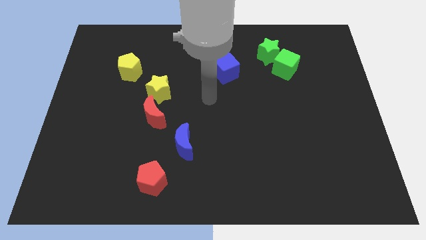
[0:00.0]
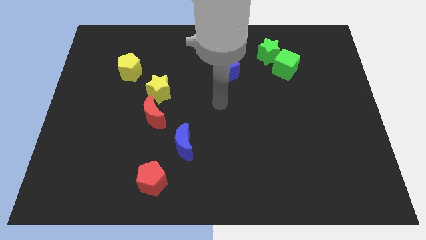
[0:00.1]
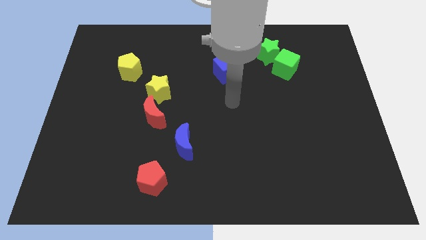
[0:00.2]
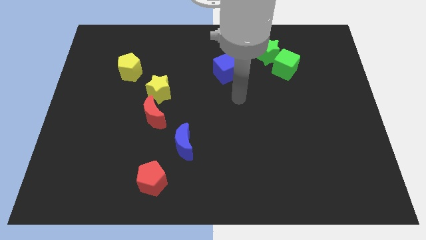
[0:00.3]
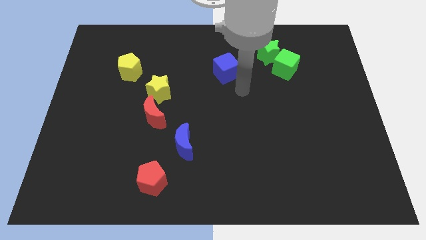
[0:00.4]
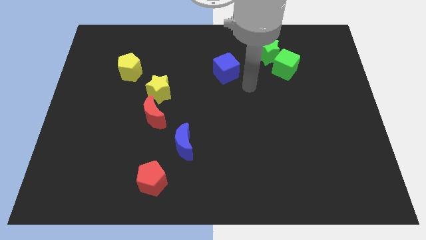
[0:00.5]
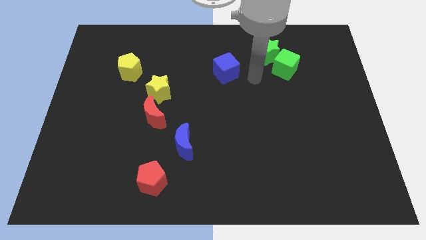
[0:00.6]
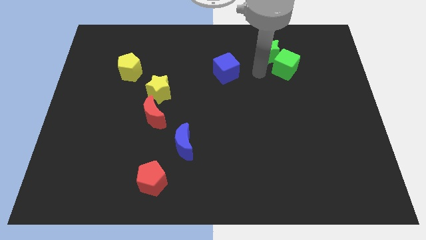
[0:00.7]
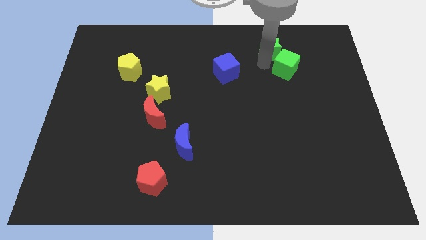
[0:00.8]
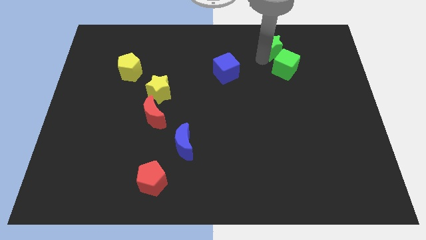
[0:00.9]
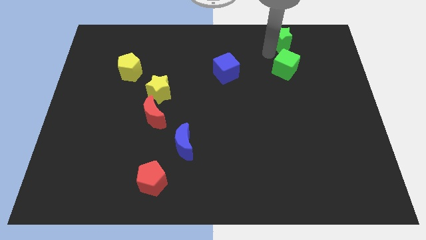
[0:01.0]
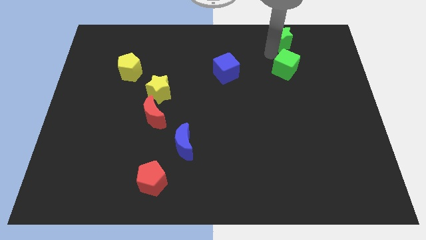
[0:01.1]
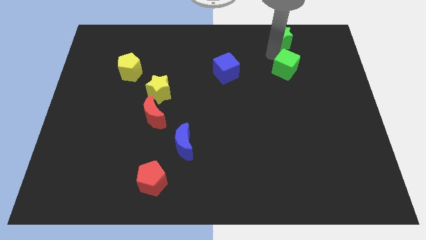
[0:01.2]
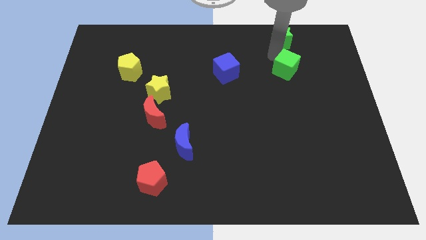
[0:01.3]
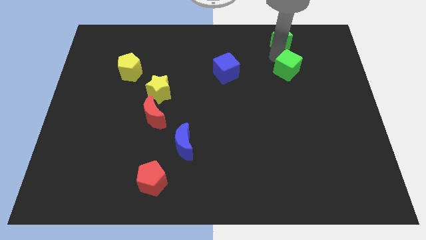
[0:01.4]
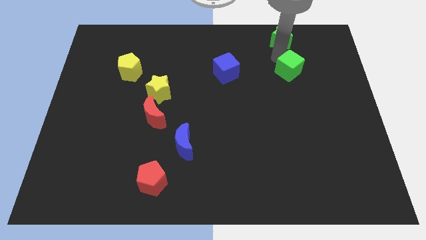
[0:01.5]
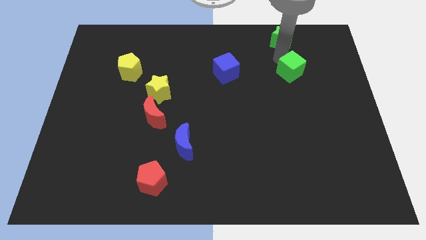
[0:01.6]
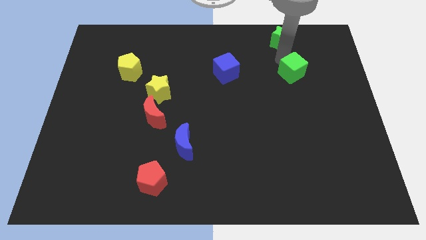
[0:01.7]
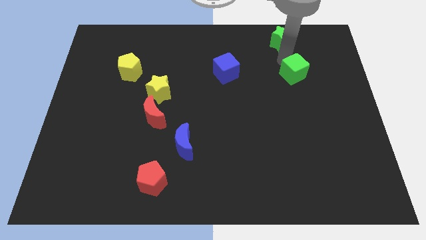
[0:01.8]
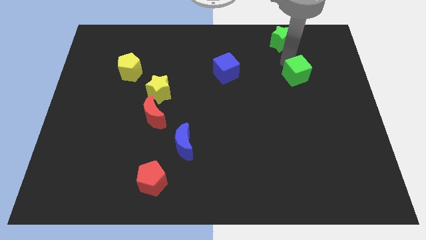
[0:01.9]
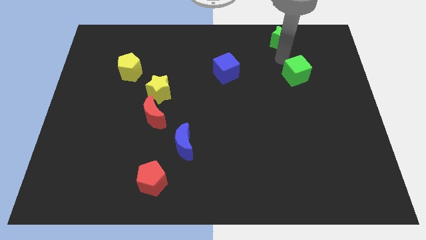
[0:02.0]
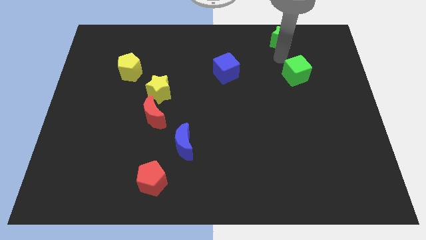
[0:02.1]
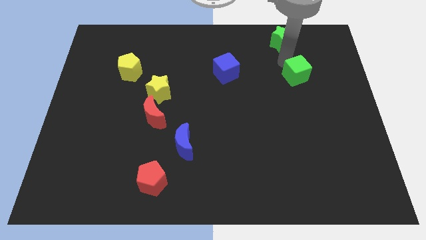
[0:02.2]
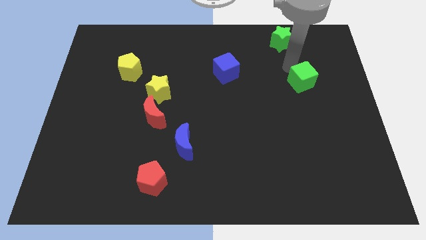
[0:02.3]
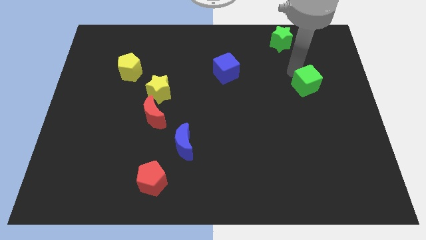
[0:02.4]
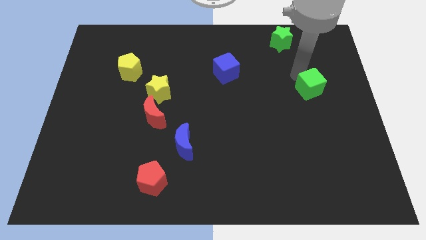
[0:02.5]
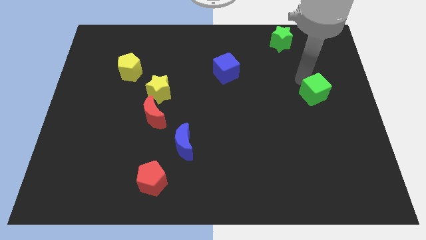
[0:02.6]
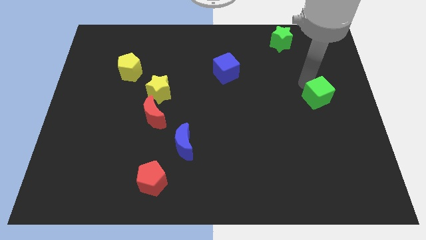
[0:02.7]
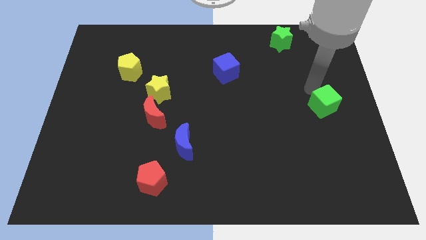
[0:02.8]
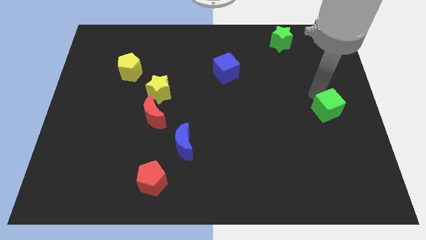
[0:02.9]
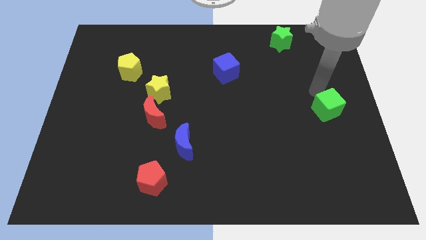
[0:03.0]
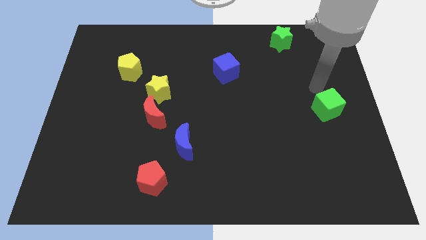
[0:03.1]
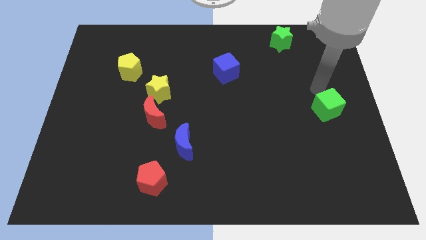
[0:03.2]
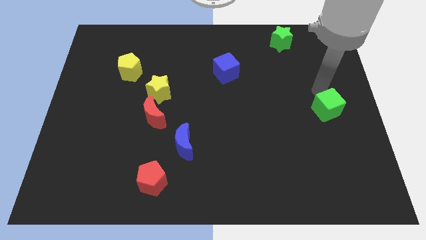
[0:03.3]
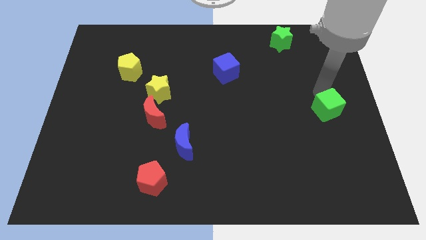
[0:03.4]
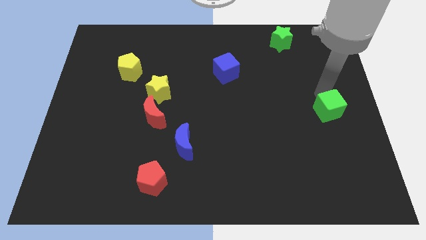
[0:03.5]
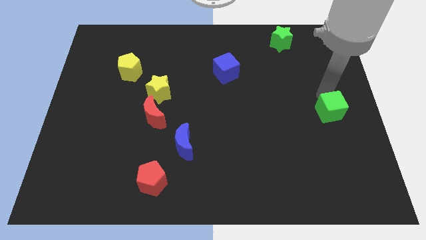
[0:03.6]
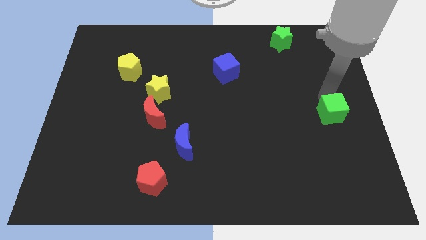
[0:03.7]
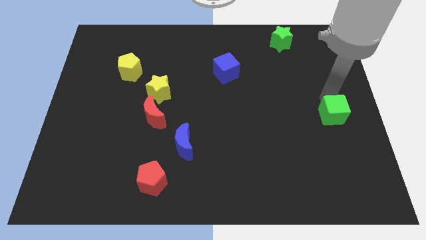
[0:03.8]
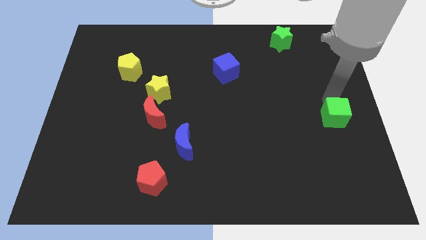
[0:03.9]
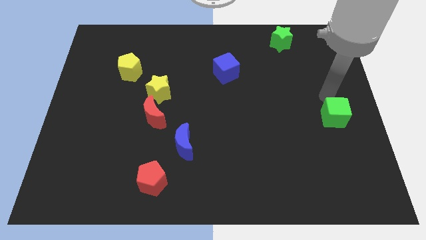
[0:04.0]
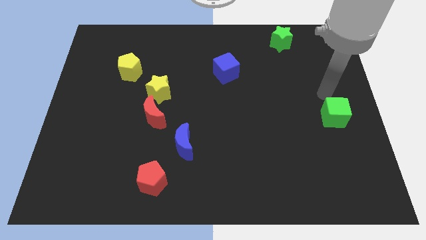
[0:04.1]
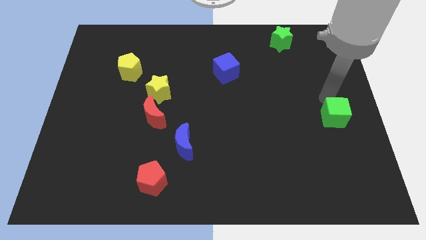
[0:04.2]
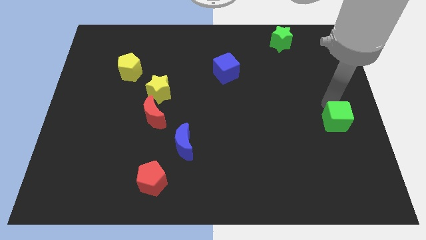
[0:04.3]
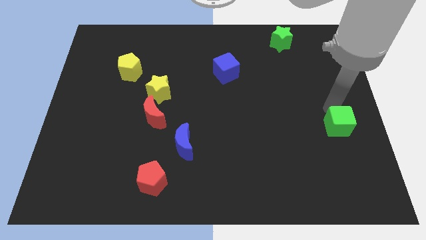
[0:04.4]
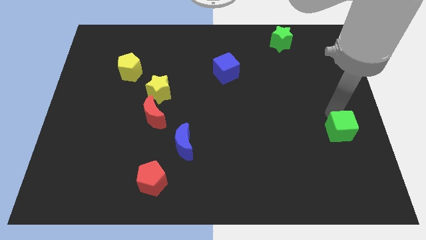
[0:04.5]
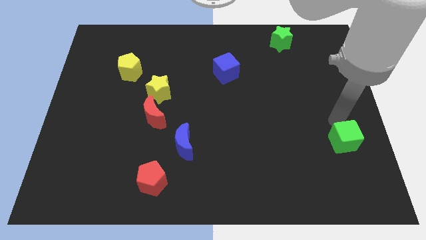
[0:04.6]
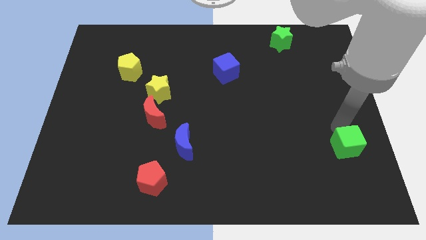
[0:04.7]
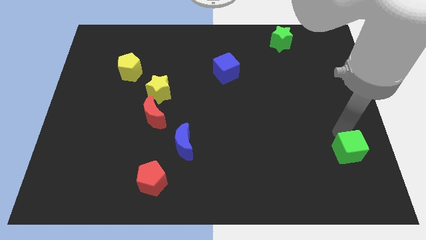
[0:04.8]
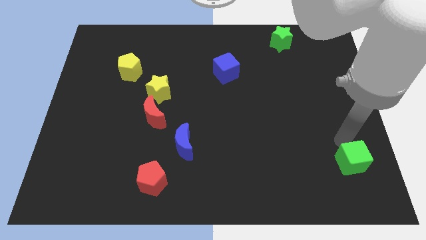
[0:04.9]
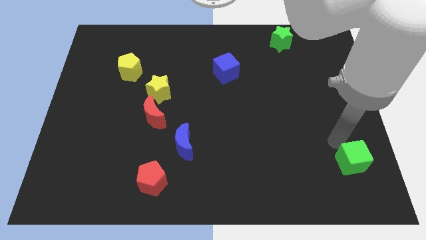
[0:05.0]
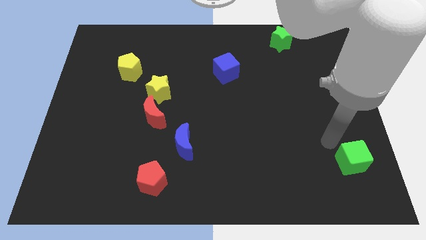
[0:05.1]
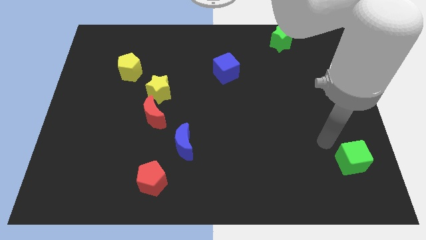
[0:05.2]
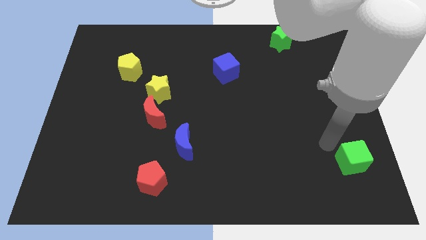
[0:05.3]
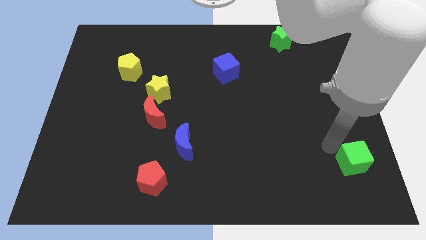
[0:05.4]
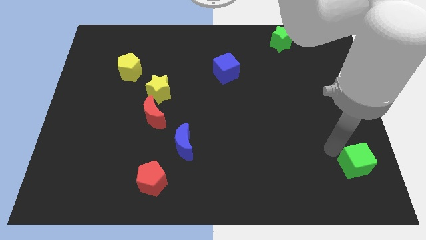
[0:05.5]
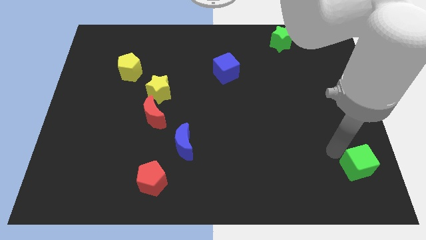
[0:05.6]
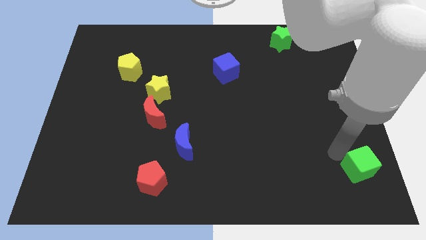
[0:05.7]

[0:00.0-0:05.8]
move the green cube to the bottom right of the board

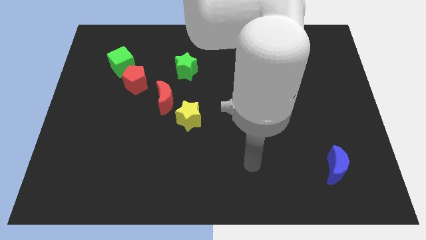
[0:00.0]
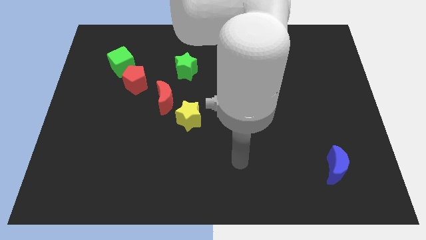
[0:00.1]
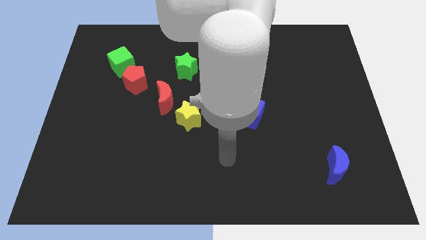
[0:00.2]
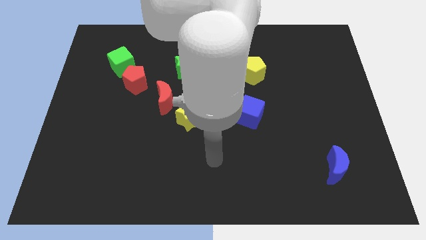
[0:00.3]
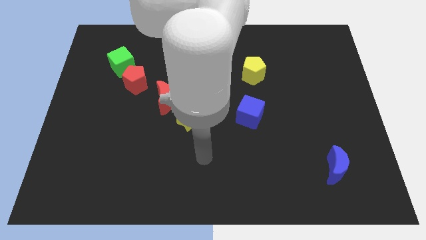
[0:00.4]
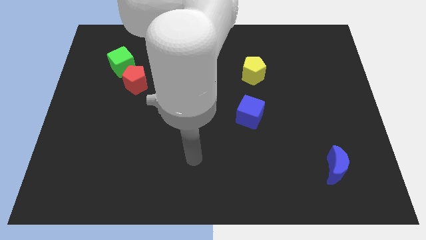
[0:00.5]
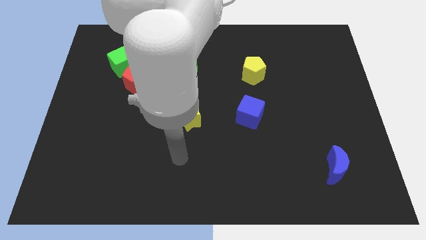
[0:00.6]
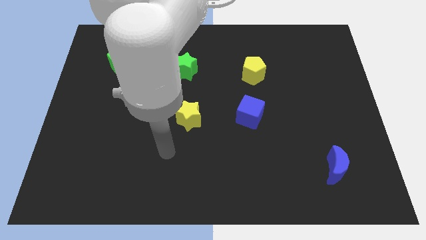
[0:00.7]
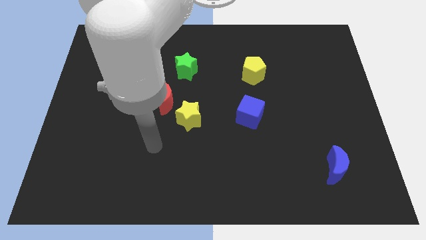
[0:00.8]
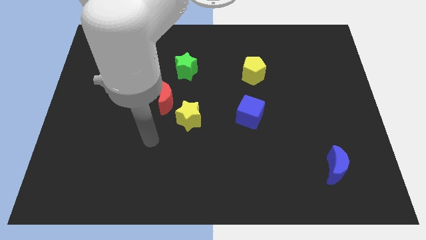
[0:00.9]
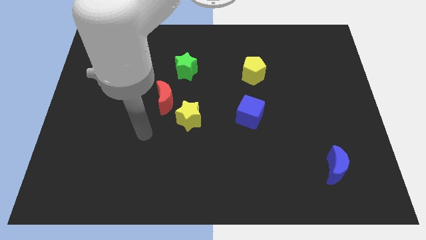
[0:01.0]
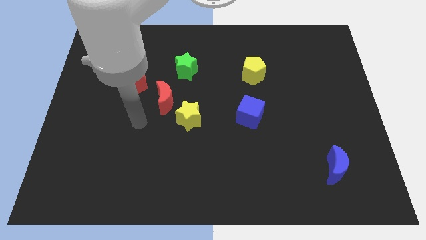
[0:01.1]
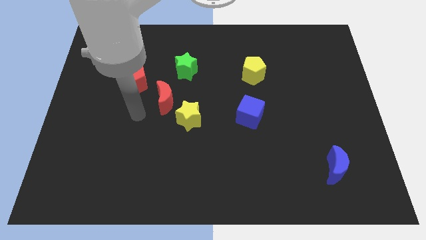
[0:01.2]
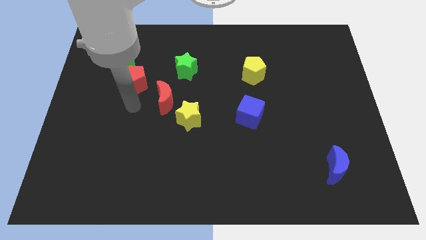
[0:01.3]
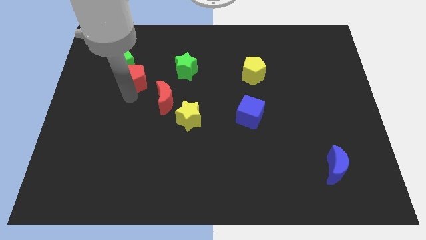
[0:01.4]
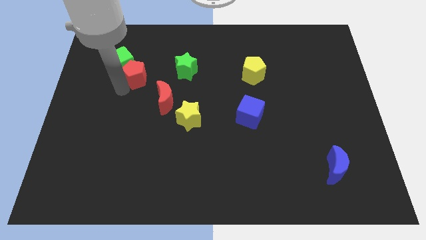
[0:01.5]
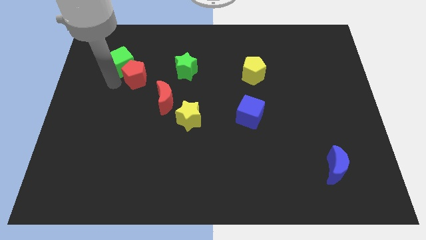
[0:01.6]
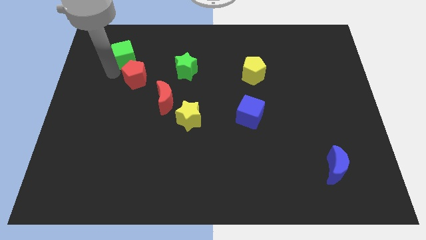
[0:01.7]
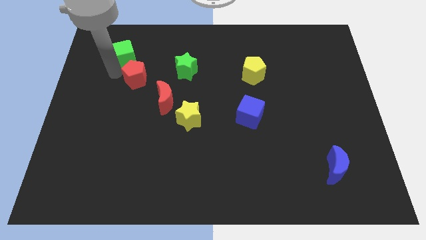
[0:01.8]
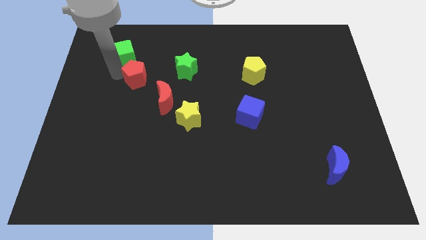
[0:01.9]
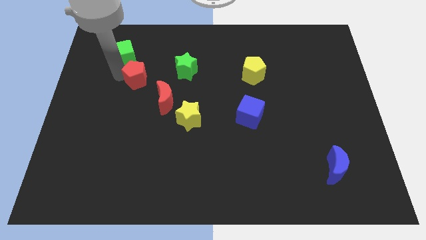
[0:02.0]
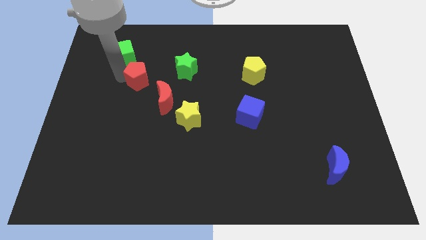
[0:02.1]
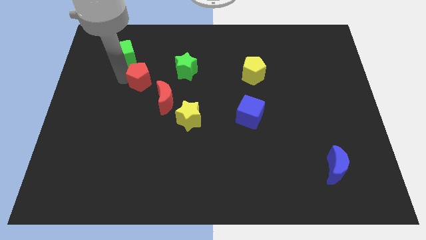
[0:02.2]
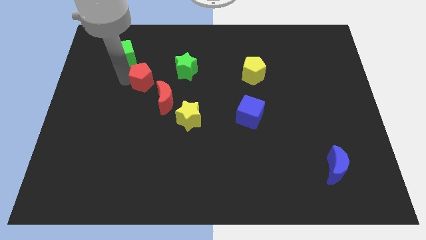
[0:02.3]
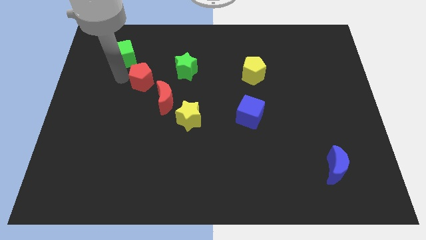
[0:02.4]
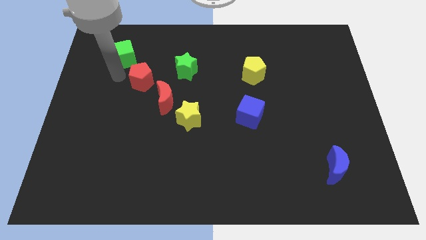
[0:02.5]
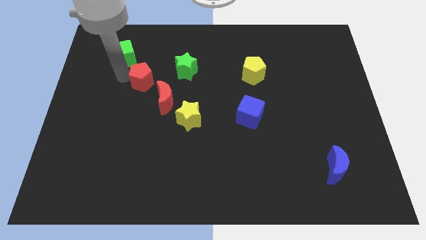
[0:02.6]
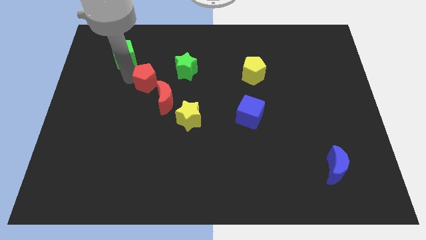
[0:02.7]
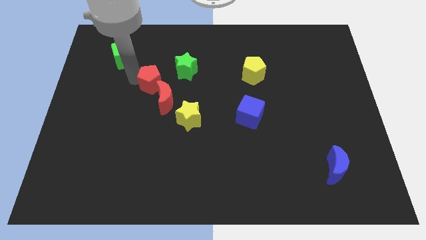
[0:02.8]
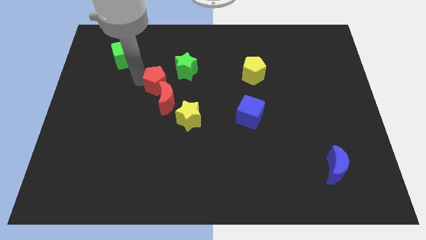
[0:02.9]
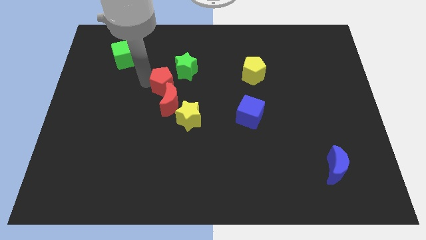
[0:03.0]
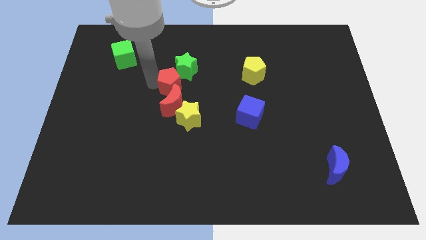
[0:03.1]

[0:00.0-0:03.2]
push the red pentagon to the center of the board
